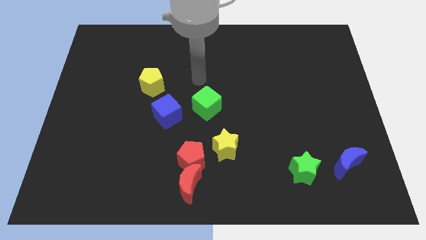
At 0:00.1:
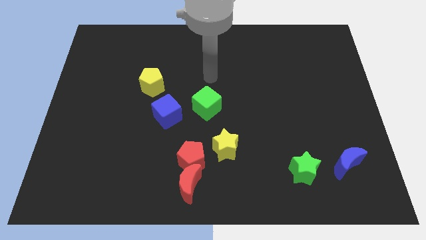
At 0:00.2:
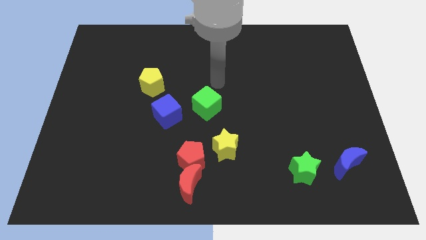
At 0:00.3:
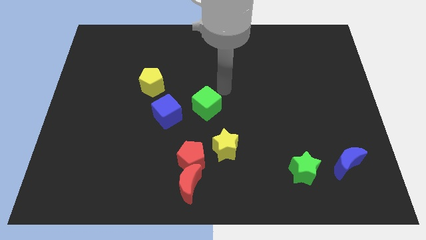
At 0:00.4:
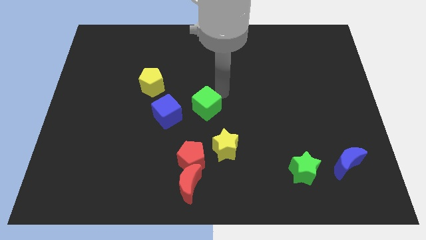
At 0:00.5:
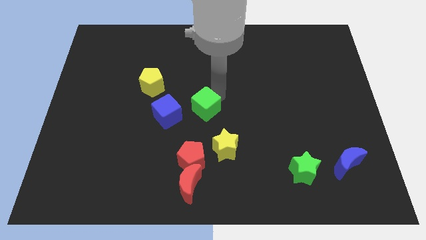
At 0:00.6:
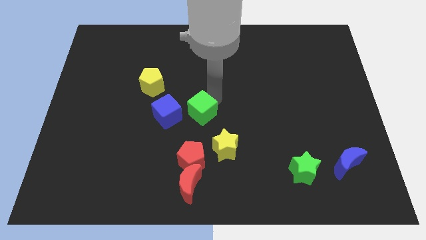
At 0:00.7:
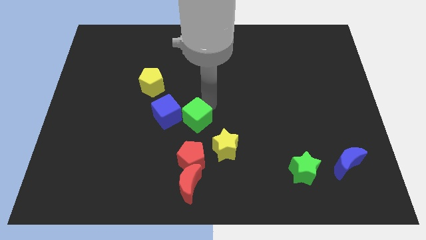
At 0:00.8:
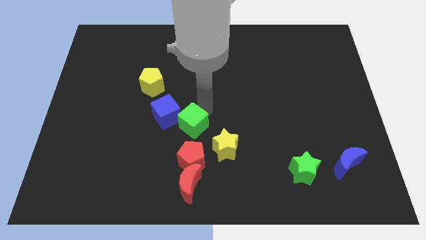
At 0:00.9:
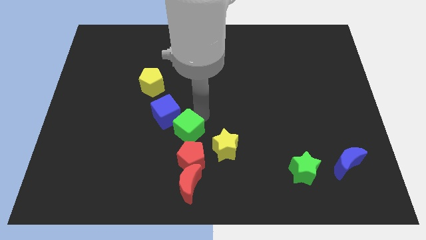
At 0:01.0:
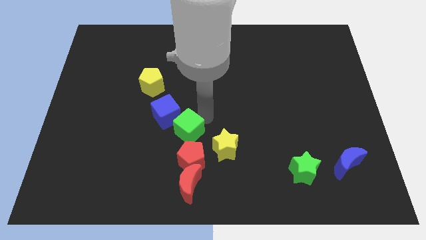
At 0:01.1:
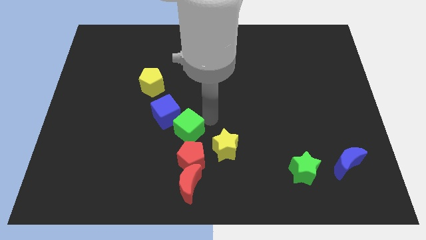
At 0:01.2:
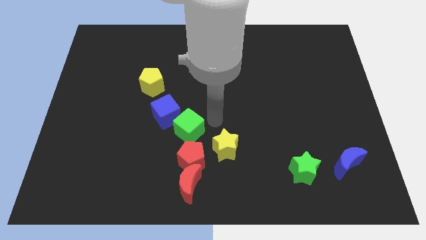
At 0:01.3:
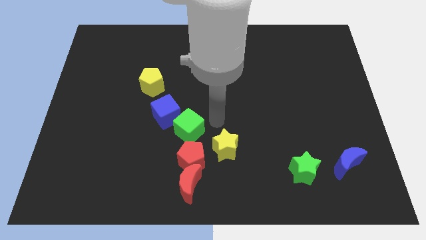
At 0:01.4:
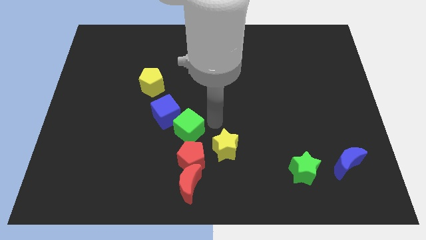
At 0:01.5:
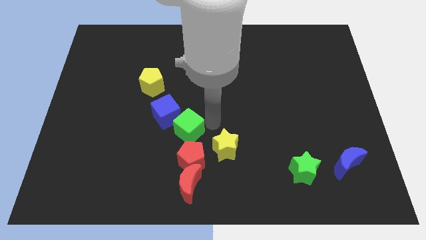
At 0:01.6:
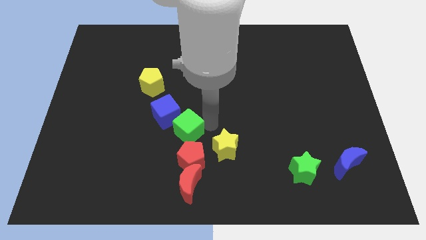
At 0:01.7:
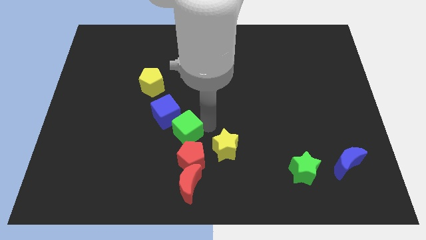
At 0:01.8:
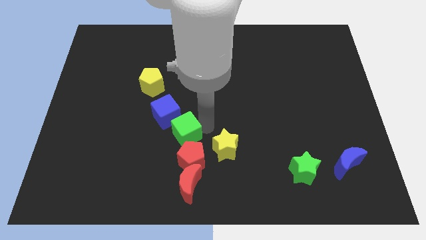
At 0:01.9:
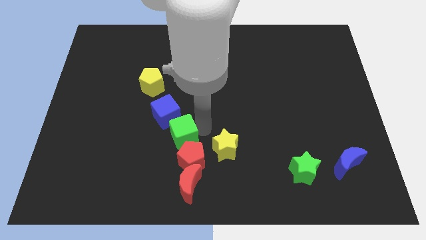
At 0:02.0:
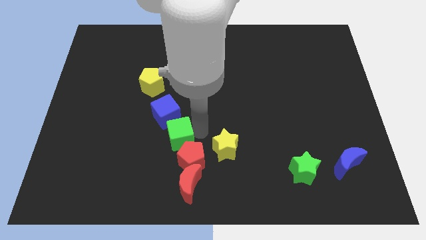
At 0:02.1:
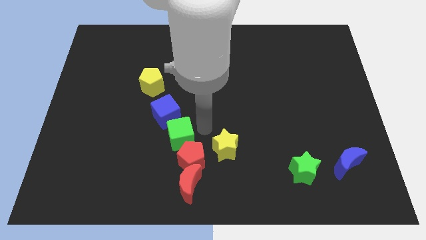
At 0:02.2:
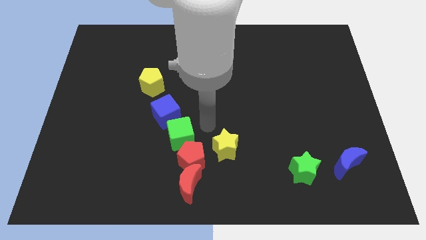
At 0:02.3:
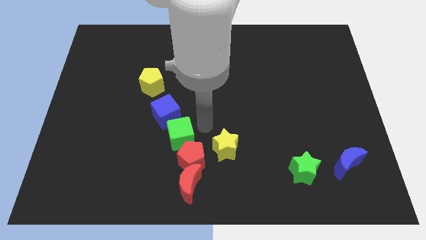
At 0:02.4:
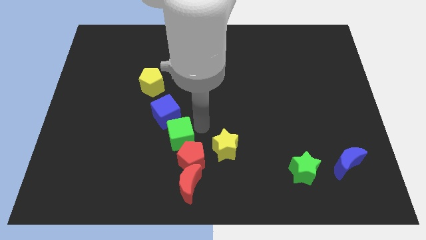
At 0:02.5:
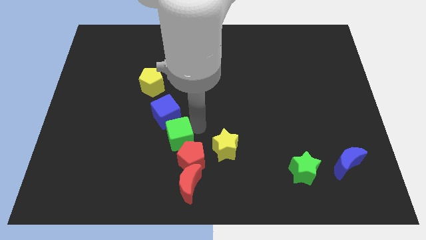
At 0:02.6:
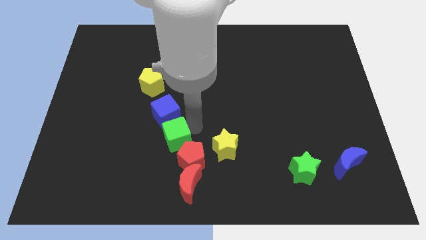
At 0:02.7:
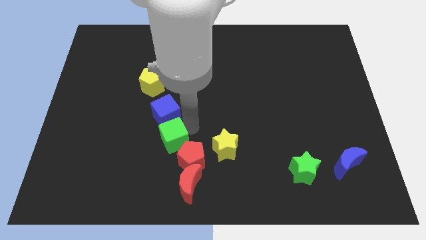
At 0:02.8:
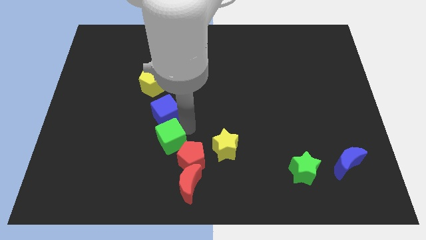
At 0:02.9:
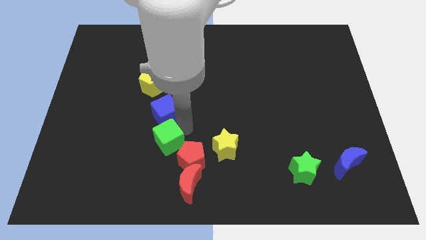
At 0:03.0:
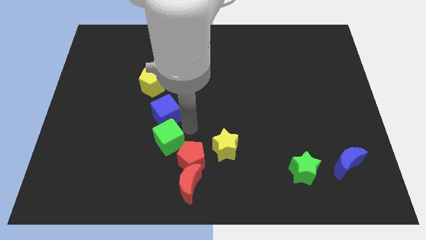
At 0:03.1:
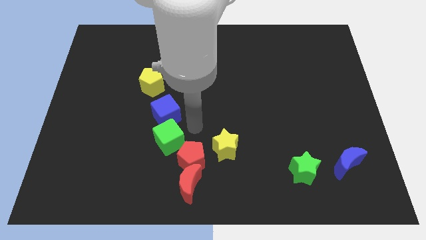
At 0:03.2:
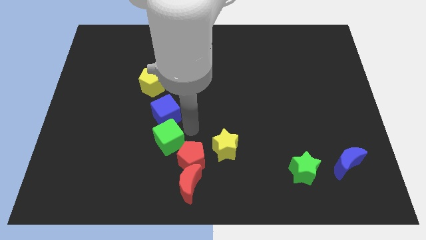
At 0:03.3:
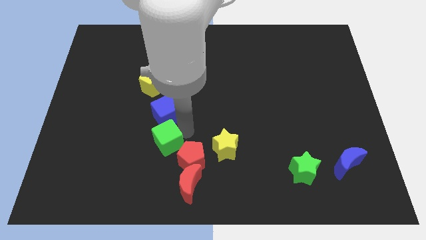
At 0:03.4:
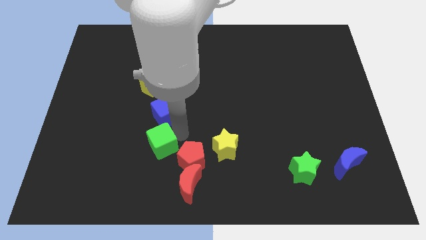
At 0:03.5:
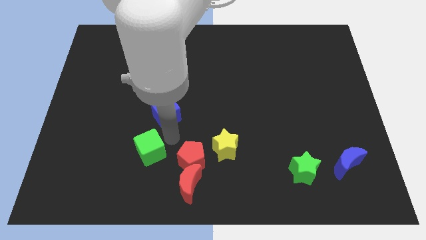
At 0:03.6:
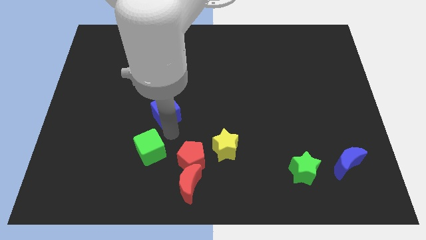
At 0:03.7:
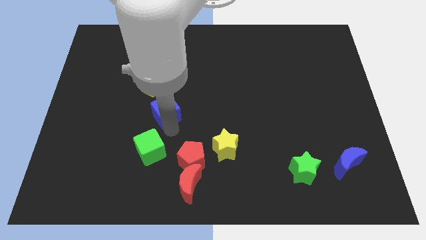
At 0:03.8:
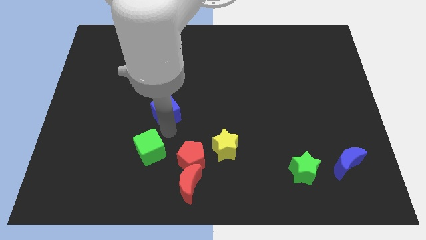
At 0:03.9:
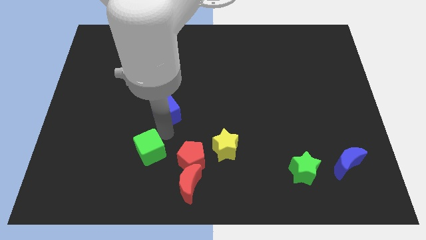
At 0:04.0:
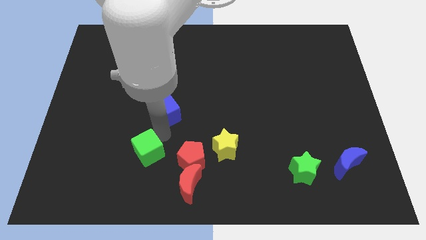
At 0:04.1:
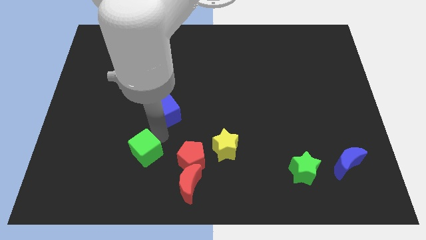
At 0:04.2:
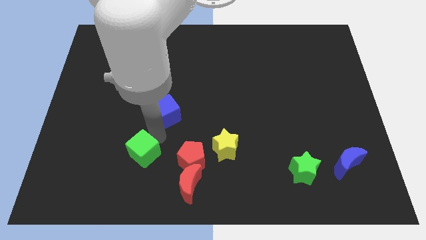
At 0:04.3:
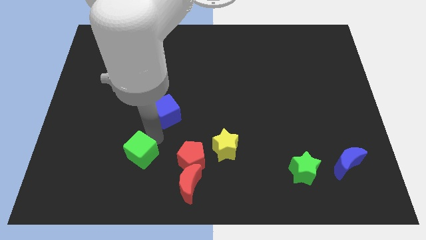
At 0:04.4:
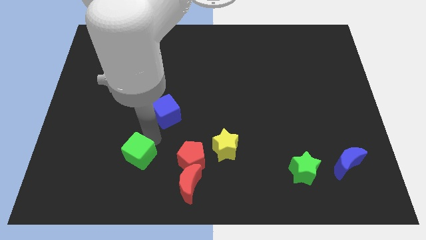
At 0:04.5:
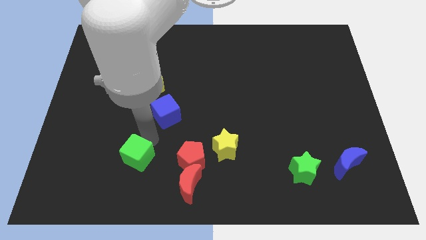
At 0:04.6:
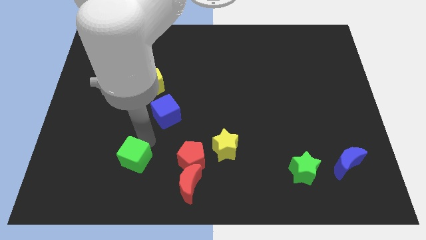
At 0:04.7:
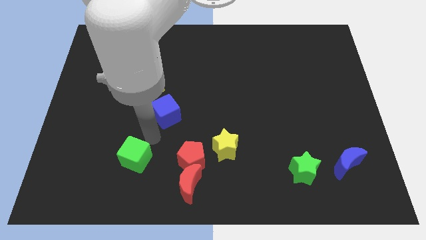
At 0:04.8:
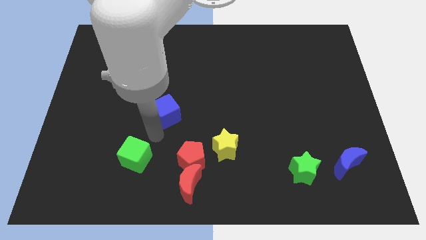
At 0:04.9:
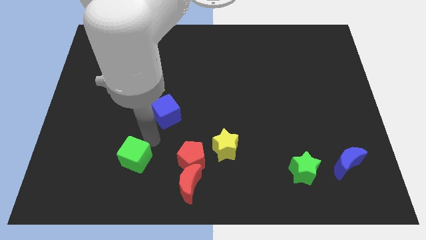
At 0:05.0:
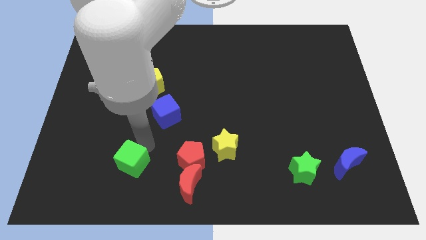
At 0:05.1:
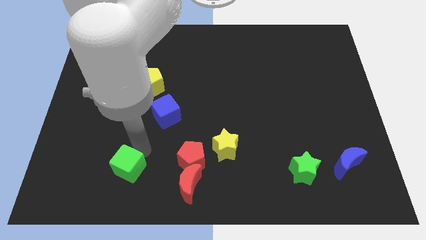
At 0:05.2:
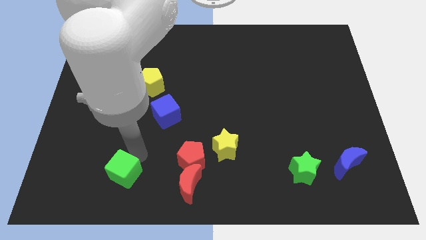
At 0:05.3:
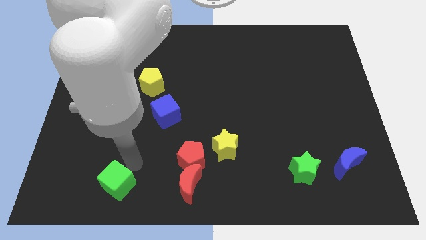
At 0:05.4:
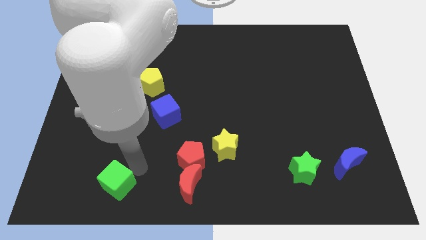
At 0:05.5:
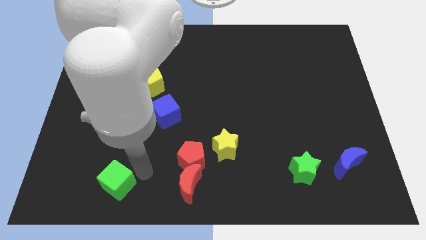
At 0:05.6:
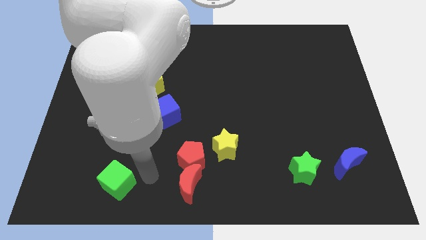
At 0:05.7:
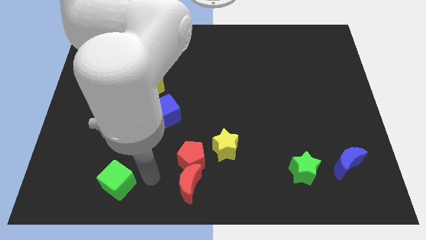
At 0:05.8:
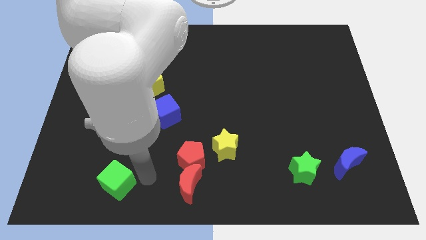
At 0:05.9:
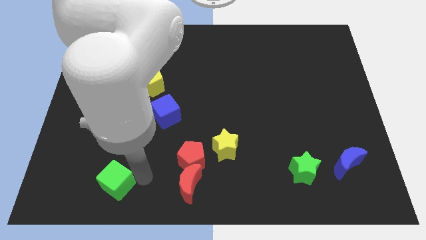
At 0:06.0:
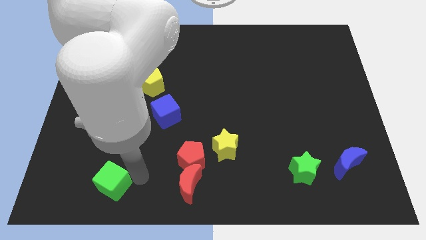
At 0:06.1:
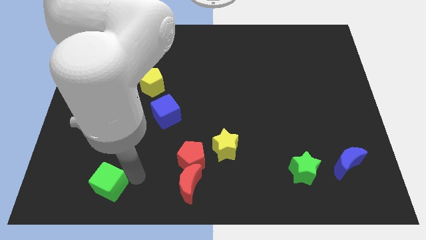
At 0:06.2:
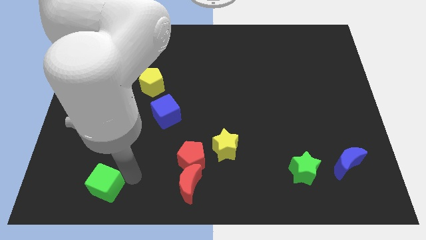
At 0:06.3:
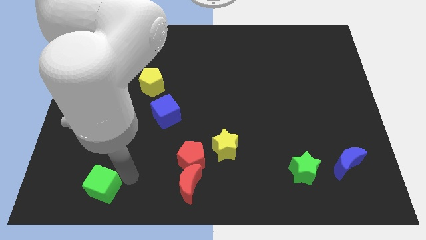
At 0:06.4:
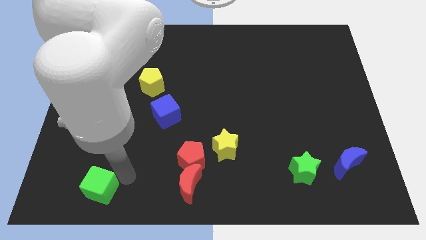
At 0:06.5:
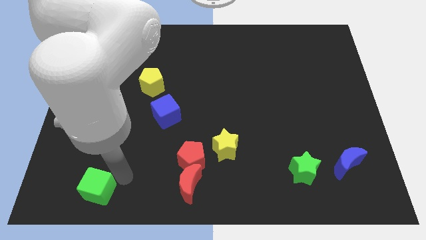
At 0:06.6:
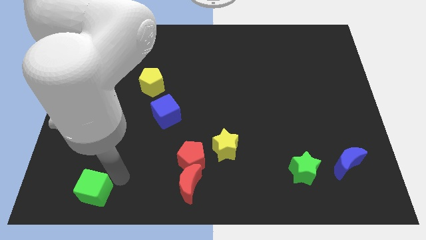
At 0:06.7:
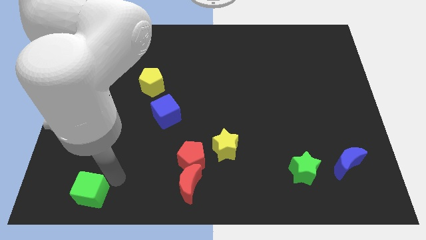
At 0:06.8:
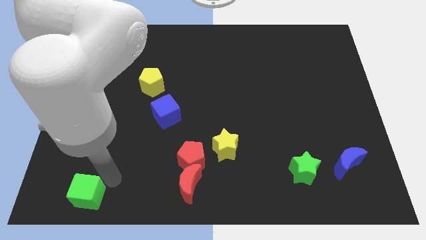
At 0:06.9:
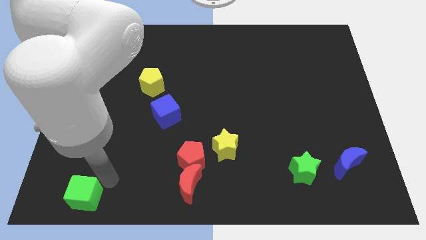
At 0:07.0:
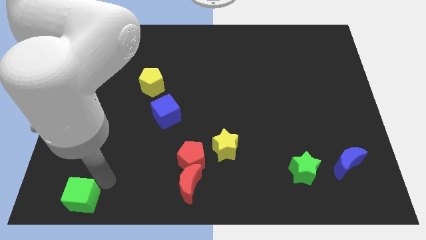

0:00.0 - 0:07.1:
put the green cube to the bottom left of the board
